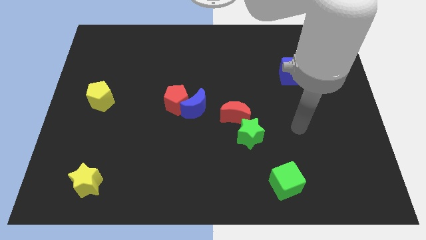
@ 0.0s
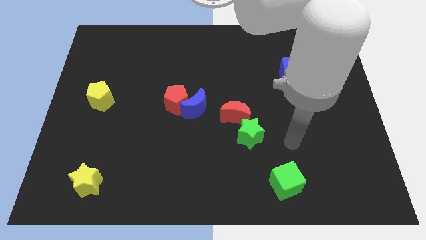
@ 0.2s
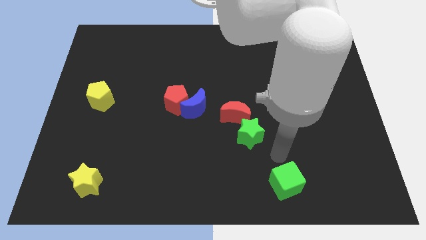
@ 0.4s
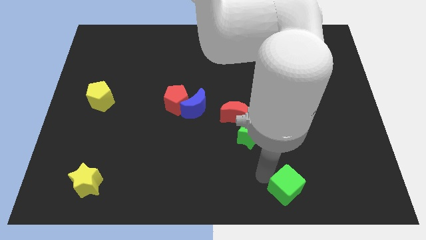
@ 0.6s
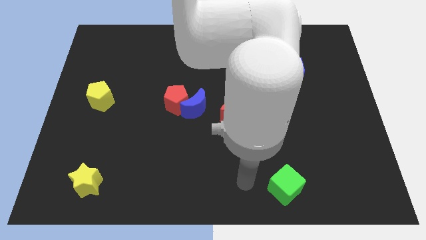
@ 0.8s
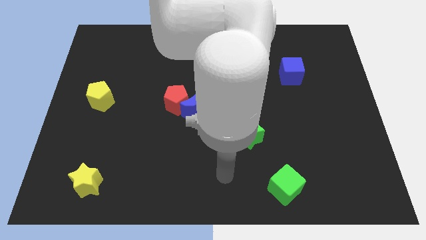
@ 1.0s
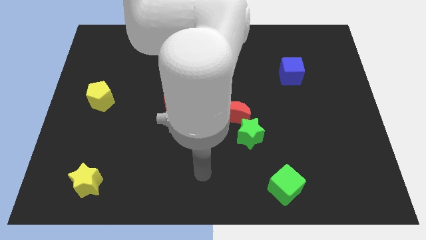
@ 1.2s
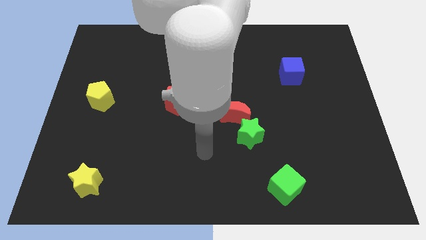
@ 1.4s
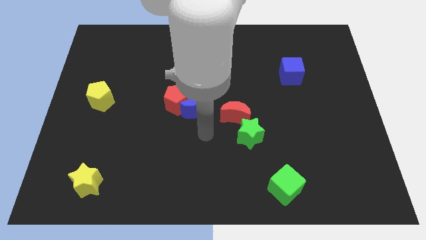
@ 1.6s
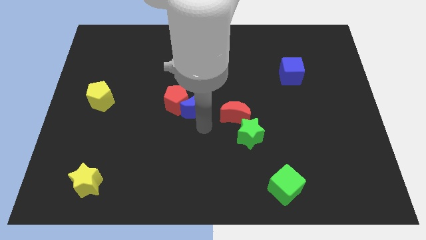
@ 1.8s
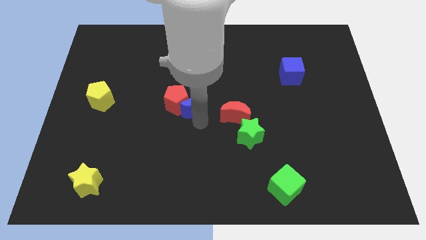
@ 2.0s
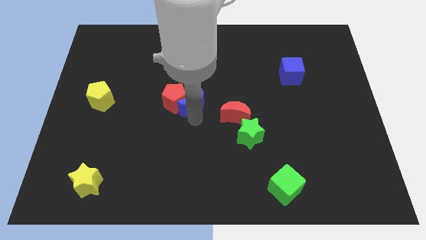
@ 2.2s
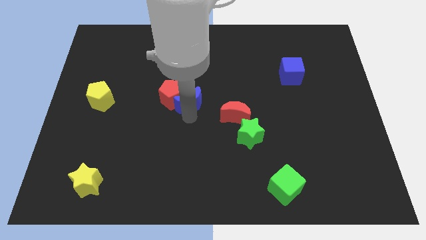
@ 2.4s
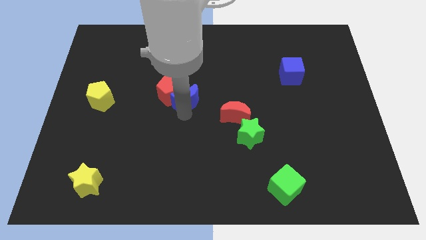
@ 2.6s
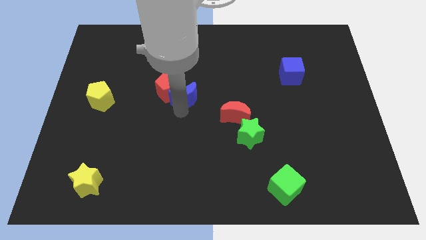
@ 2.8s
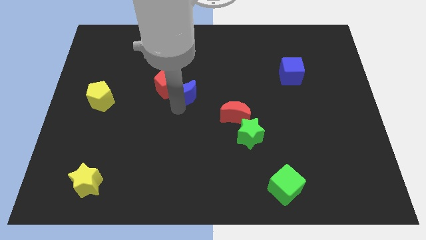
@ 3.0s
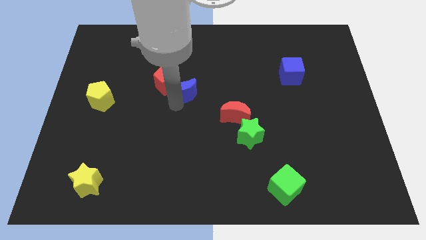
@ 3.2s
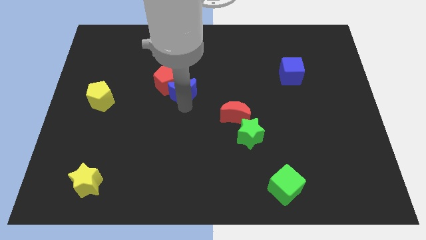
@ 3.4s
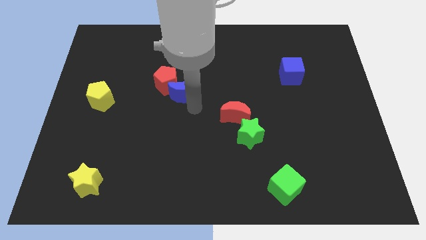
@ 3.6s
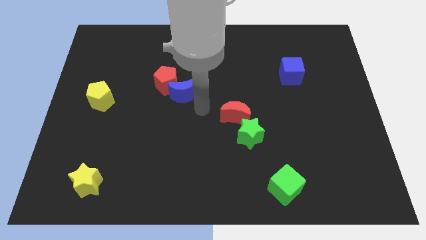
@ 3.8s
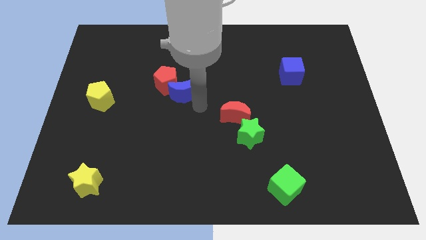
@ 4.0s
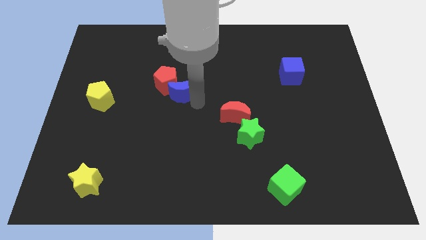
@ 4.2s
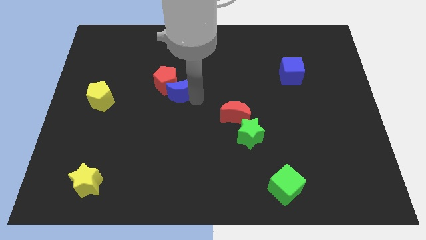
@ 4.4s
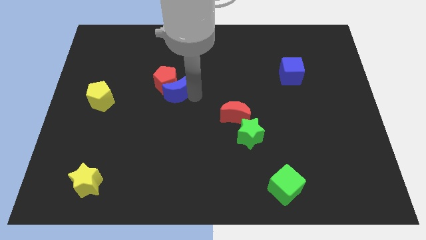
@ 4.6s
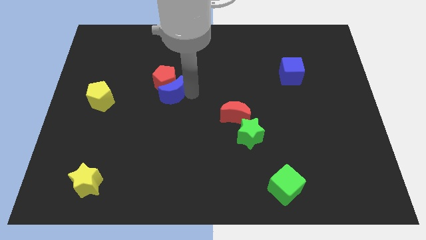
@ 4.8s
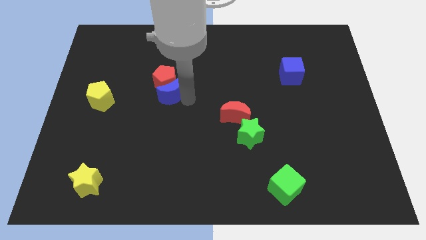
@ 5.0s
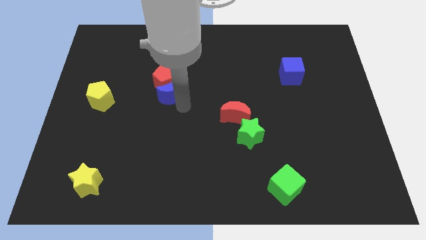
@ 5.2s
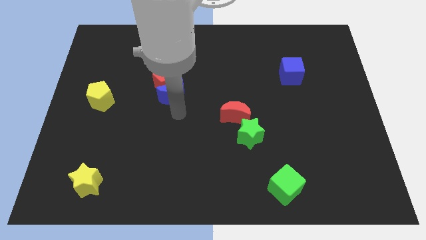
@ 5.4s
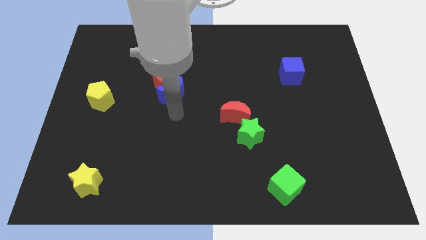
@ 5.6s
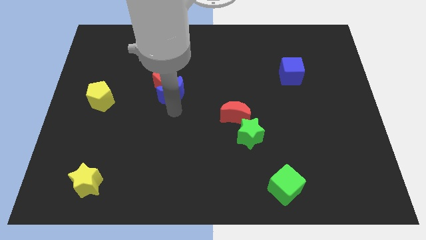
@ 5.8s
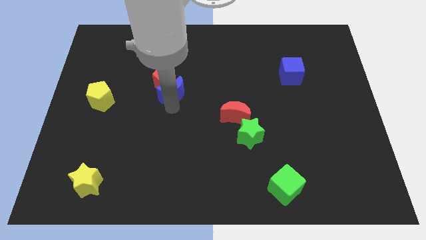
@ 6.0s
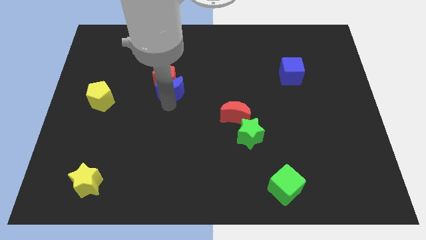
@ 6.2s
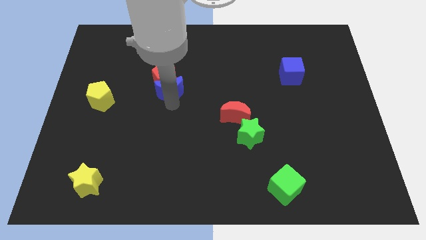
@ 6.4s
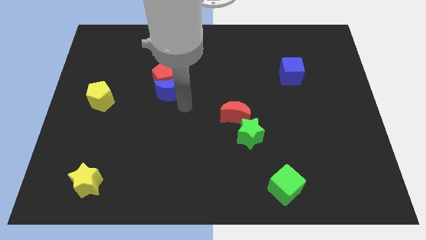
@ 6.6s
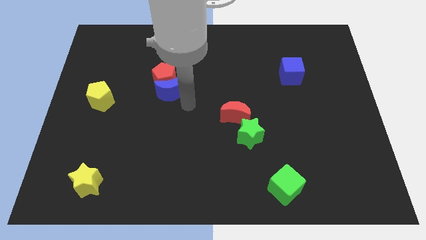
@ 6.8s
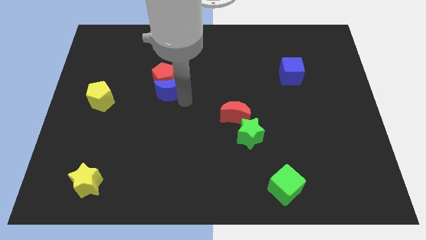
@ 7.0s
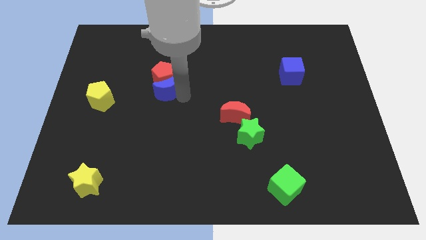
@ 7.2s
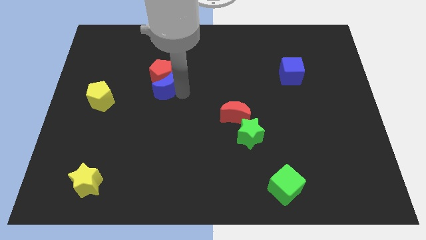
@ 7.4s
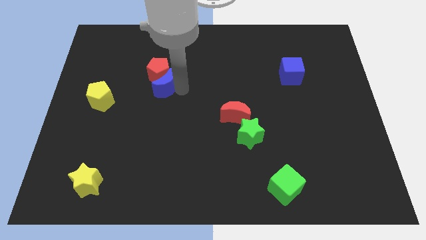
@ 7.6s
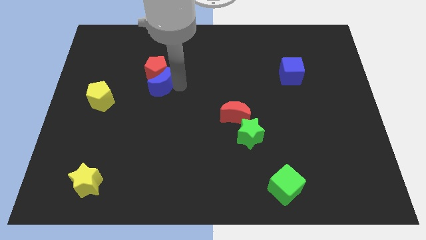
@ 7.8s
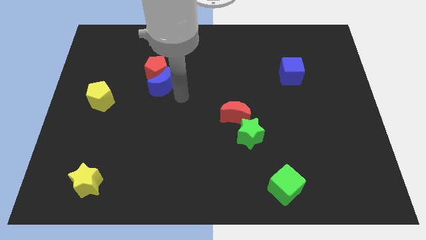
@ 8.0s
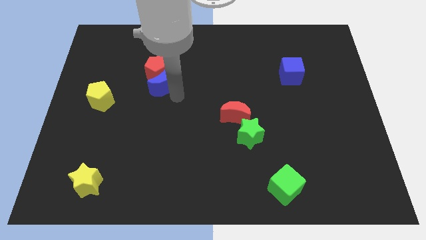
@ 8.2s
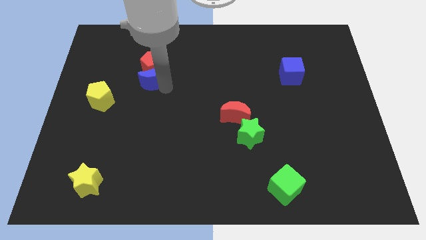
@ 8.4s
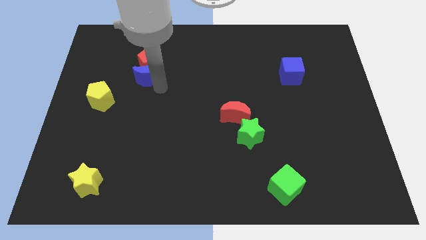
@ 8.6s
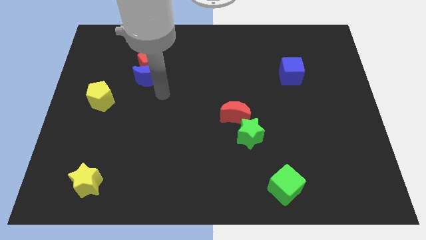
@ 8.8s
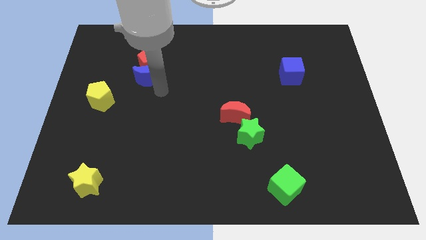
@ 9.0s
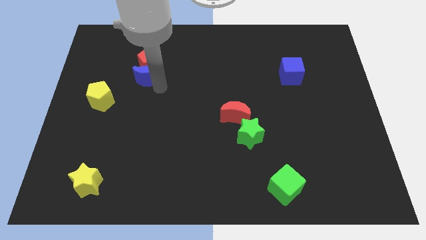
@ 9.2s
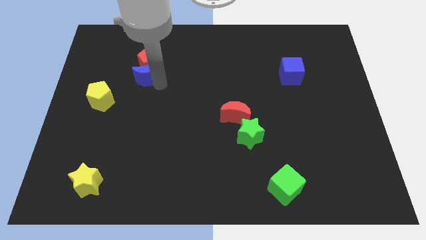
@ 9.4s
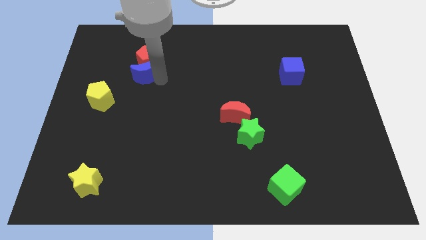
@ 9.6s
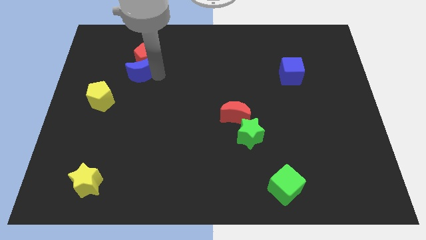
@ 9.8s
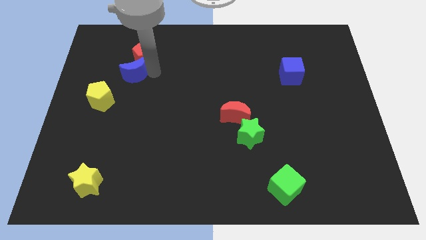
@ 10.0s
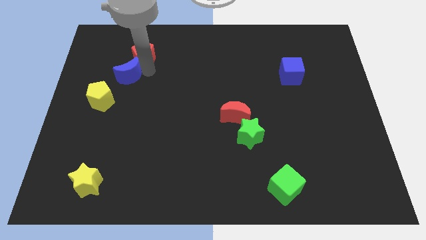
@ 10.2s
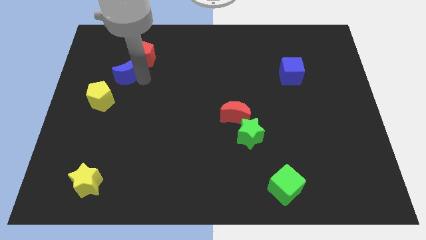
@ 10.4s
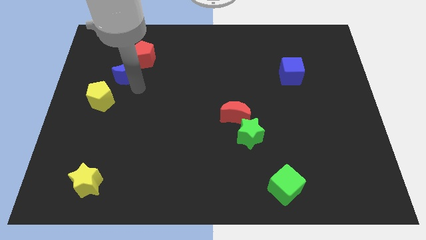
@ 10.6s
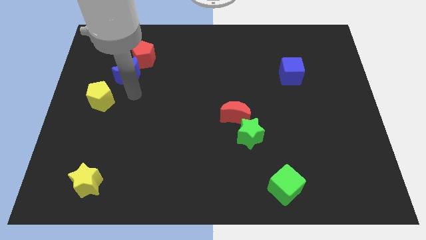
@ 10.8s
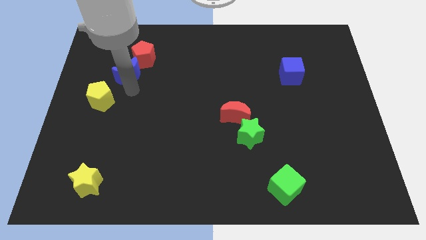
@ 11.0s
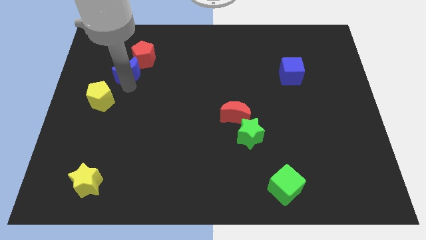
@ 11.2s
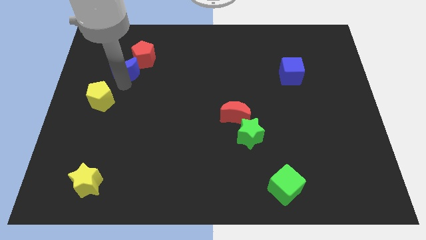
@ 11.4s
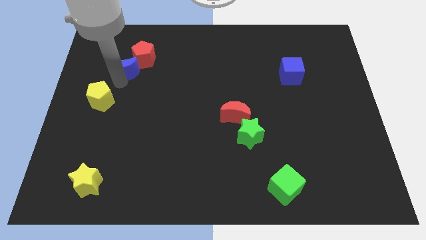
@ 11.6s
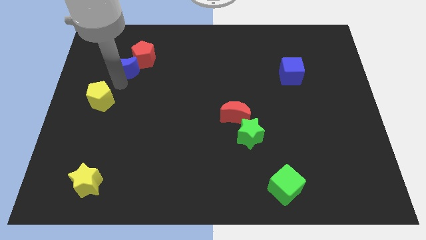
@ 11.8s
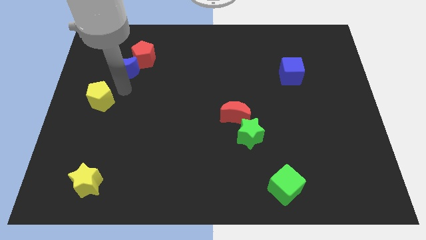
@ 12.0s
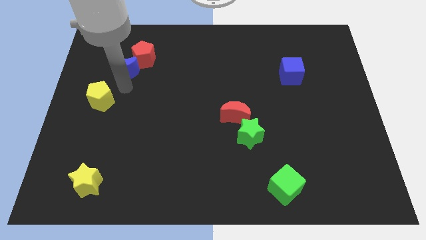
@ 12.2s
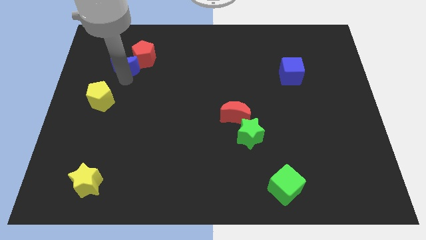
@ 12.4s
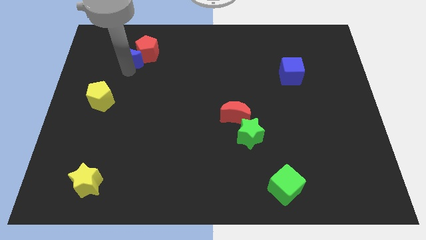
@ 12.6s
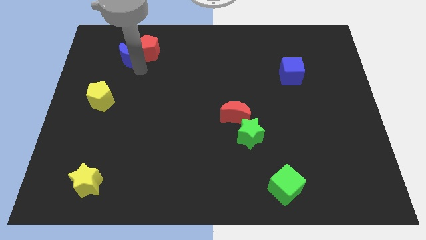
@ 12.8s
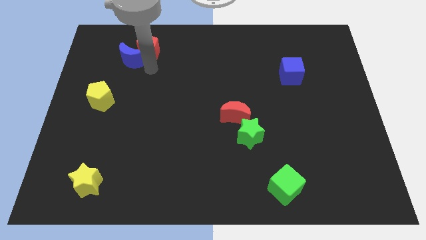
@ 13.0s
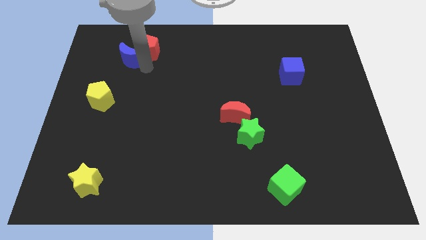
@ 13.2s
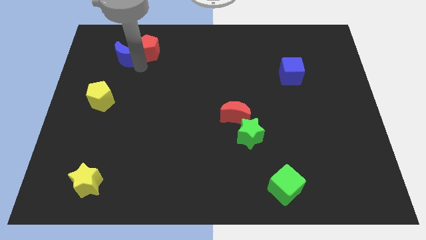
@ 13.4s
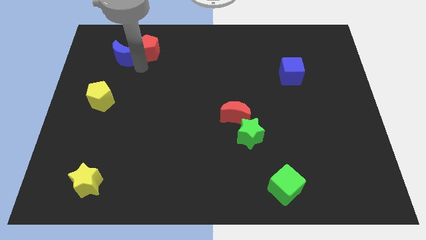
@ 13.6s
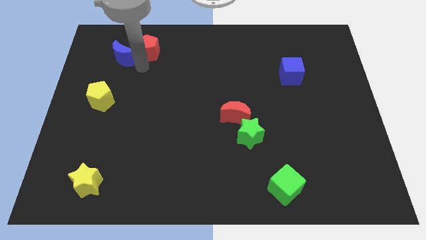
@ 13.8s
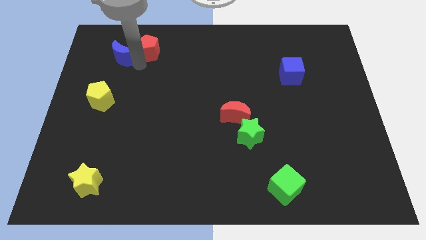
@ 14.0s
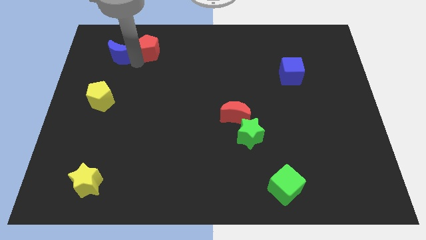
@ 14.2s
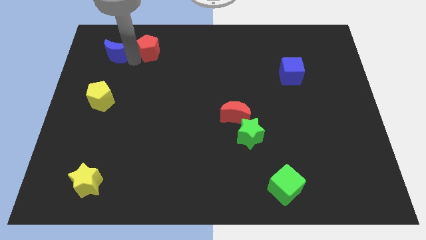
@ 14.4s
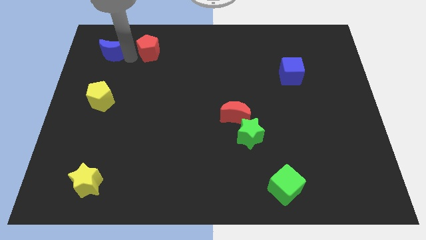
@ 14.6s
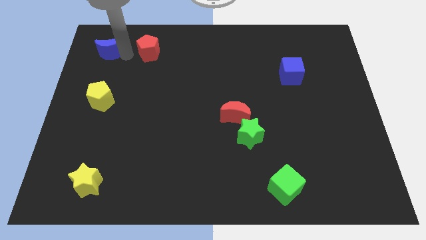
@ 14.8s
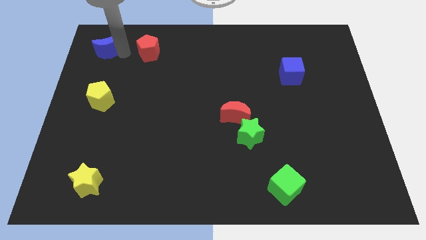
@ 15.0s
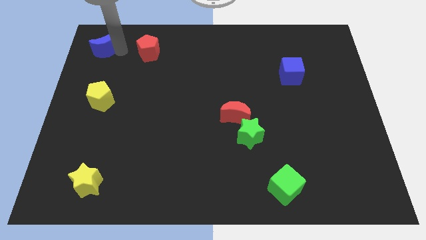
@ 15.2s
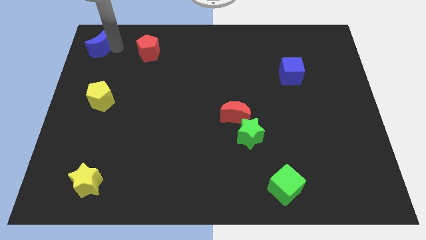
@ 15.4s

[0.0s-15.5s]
move the blue moon to the top left corner
